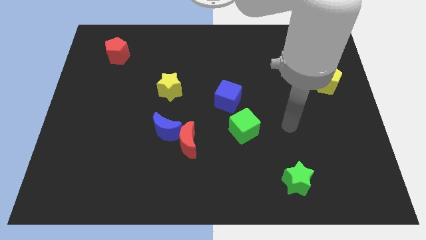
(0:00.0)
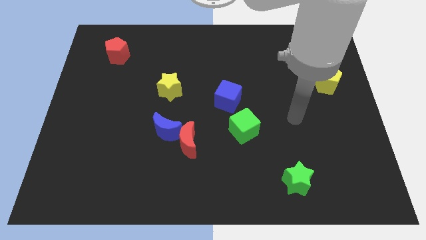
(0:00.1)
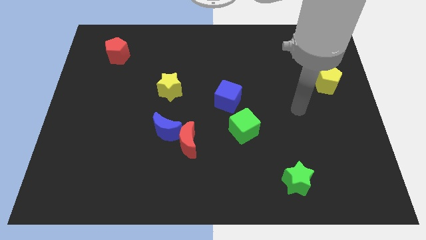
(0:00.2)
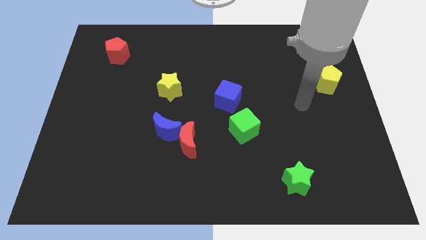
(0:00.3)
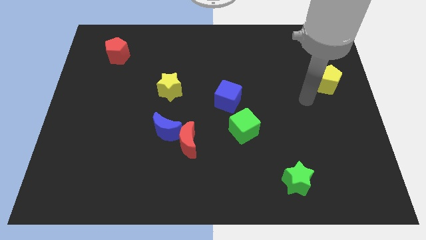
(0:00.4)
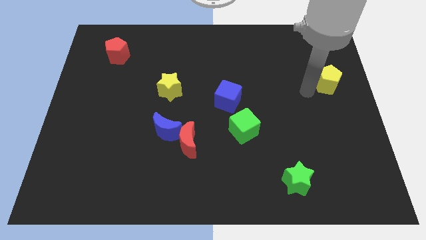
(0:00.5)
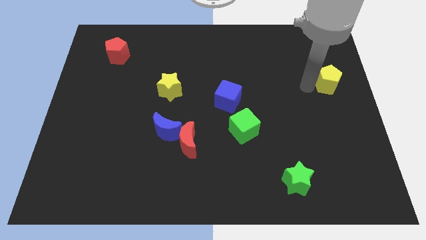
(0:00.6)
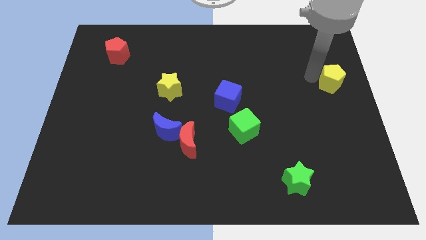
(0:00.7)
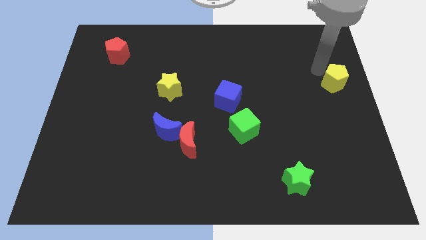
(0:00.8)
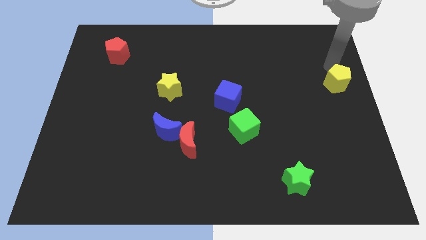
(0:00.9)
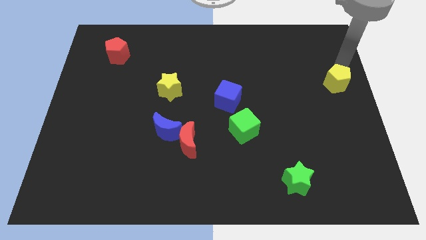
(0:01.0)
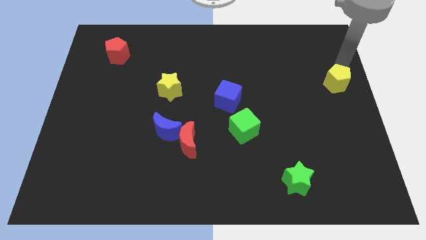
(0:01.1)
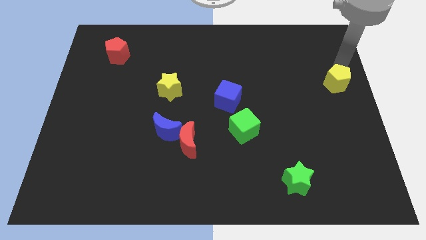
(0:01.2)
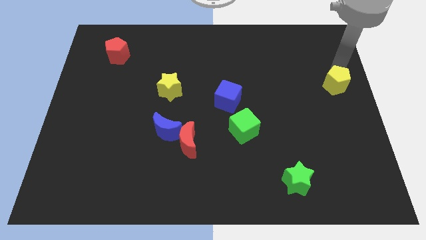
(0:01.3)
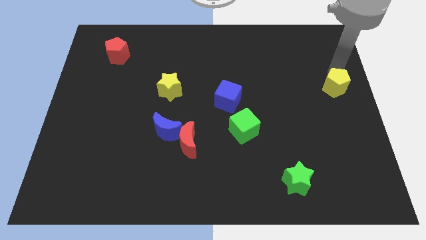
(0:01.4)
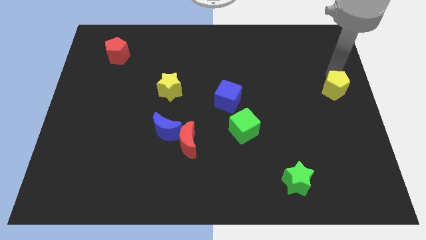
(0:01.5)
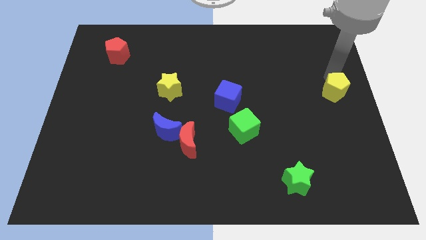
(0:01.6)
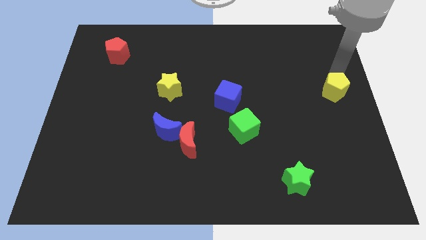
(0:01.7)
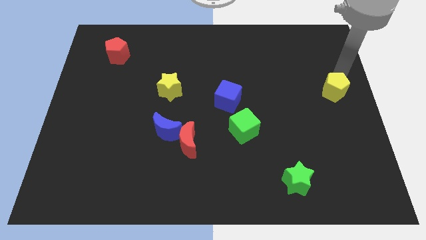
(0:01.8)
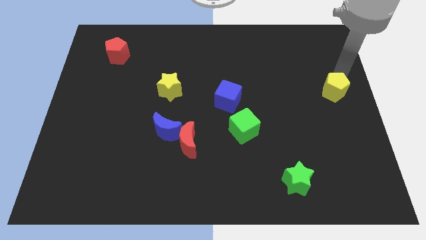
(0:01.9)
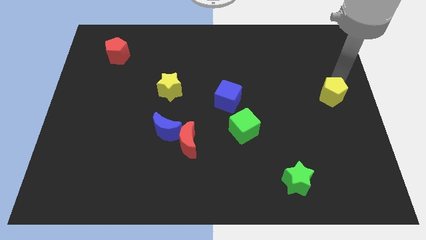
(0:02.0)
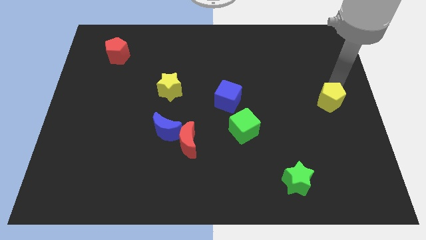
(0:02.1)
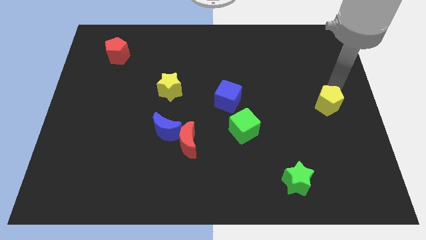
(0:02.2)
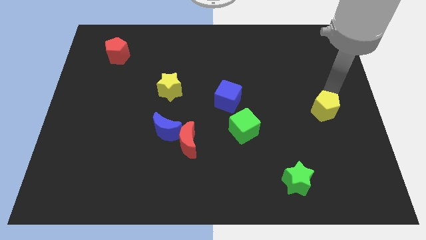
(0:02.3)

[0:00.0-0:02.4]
push the yellow pentagon down a bit

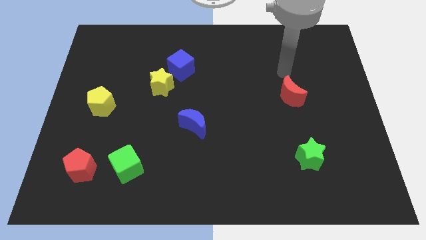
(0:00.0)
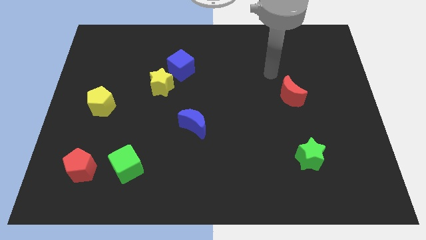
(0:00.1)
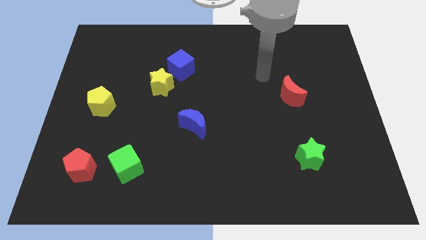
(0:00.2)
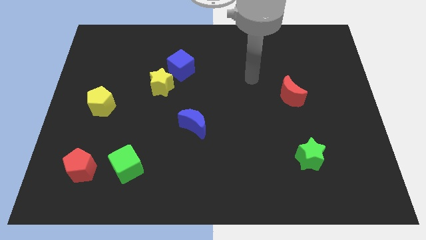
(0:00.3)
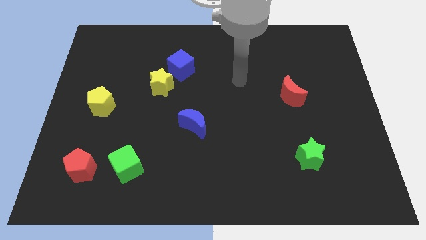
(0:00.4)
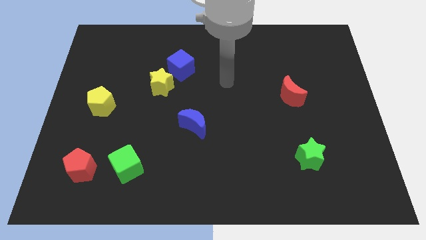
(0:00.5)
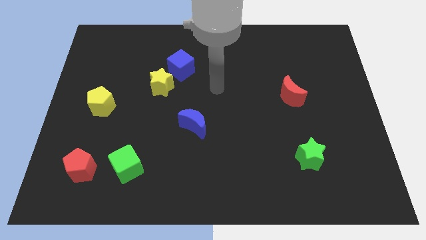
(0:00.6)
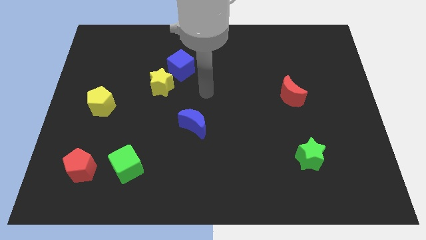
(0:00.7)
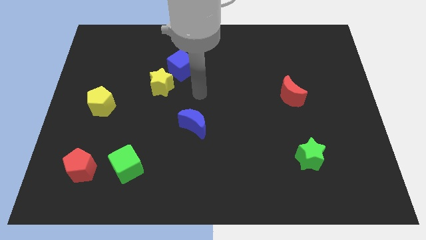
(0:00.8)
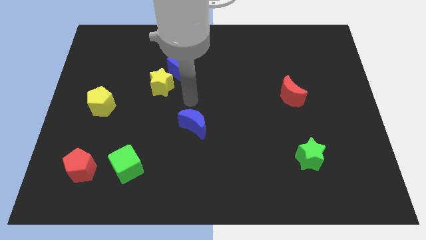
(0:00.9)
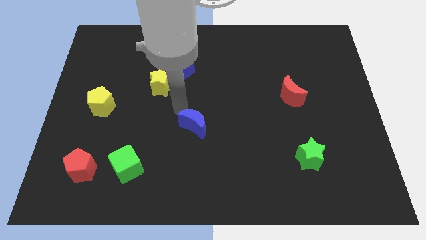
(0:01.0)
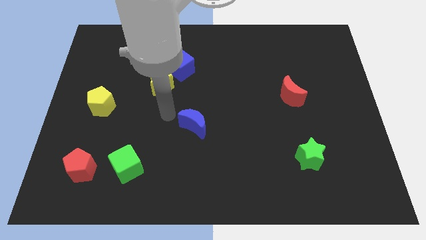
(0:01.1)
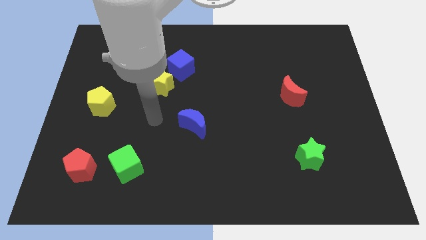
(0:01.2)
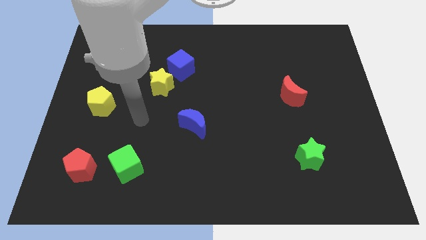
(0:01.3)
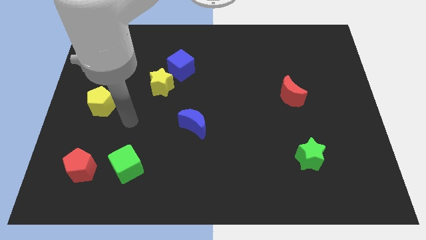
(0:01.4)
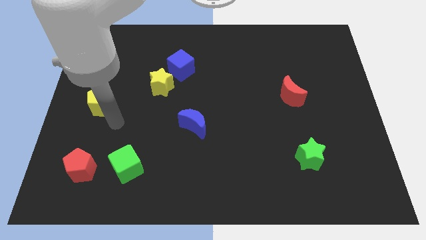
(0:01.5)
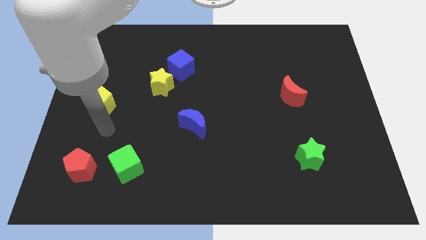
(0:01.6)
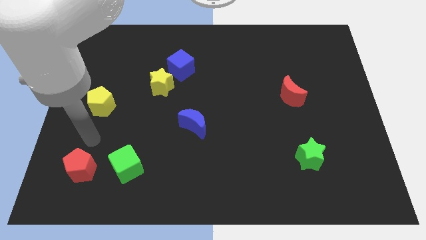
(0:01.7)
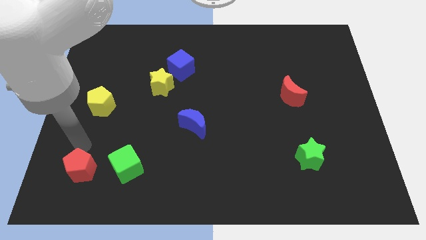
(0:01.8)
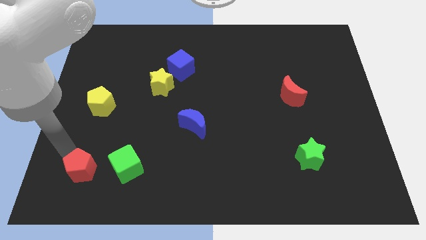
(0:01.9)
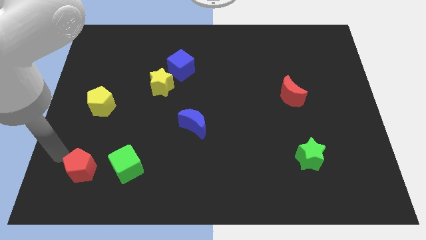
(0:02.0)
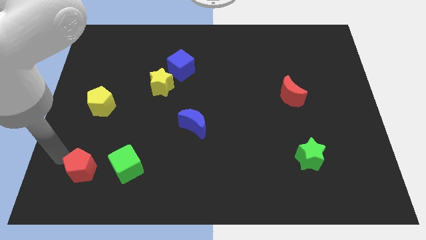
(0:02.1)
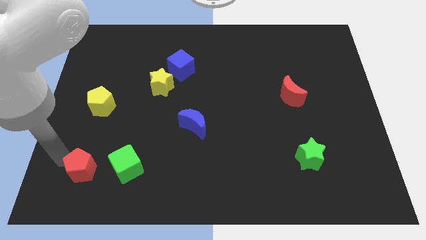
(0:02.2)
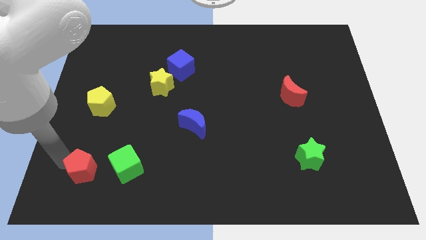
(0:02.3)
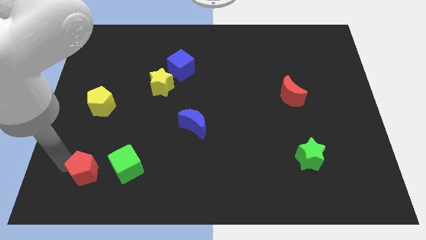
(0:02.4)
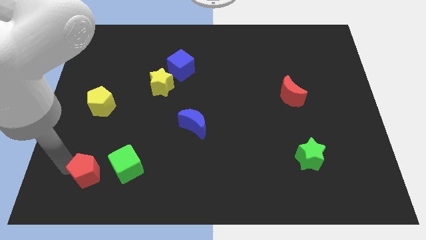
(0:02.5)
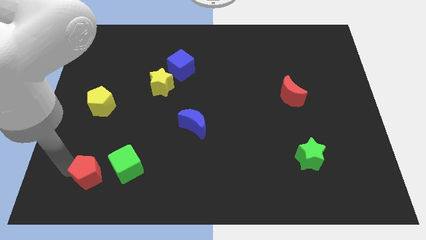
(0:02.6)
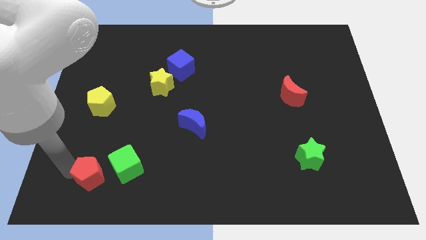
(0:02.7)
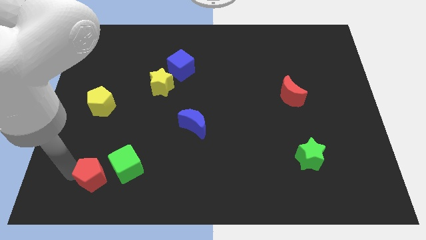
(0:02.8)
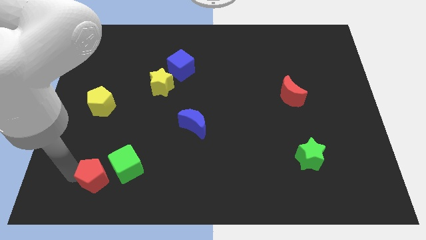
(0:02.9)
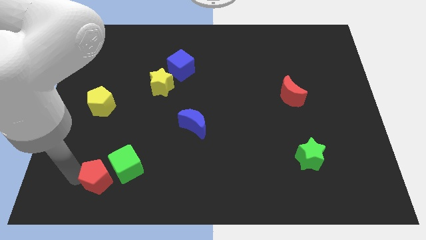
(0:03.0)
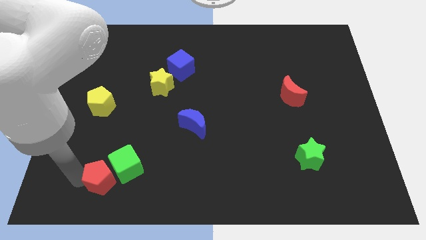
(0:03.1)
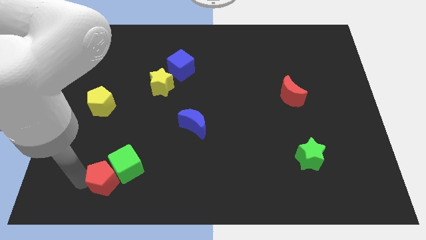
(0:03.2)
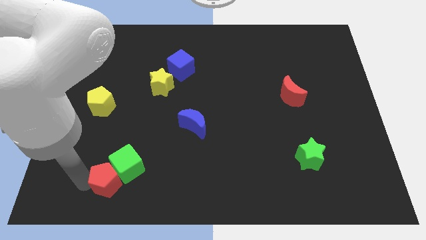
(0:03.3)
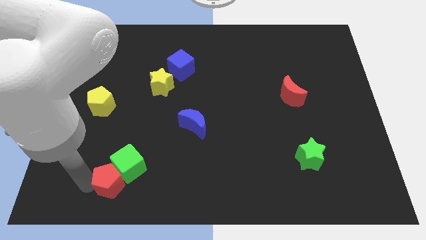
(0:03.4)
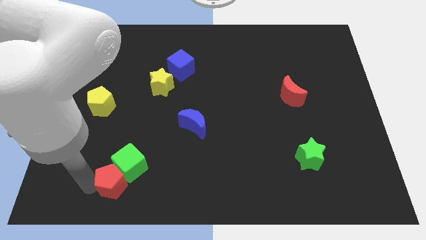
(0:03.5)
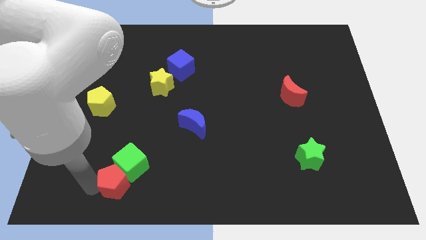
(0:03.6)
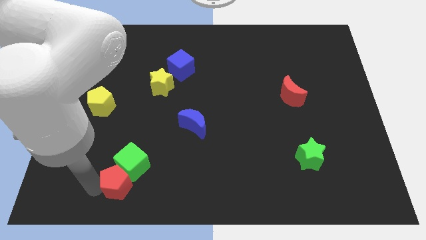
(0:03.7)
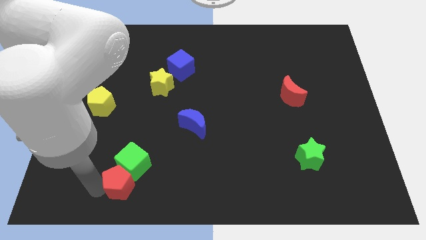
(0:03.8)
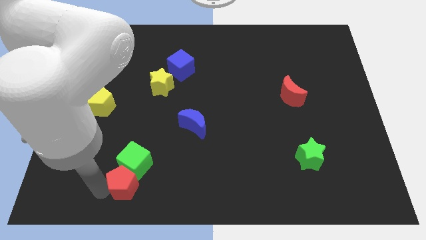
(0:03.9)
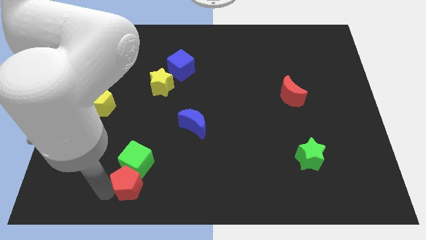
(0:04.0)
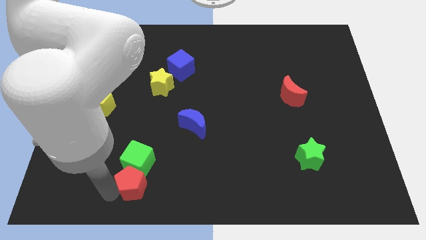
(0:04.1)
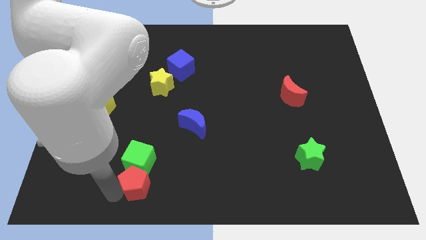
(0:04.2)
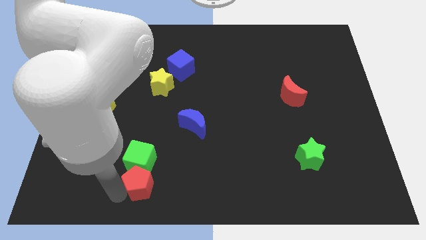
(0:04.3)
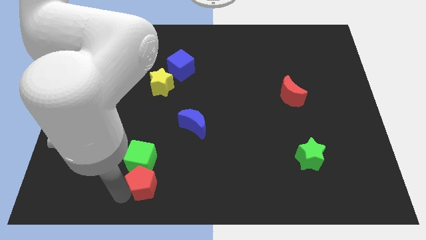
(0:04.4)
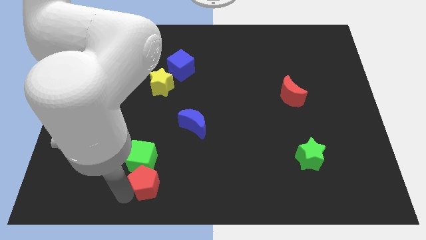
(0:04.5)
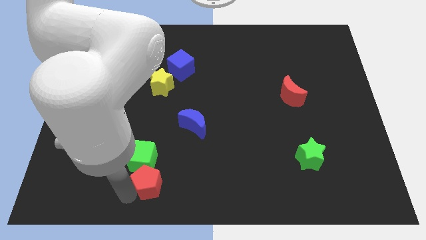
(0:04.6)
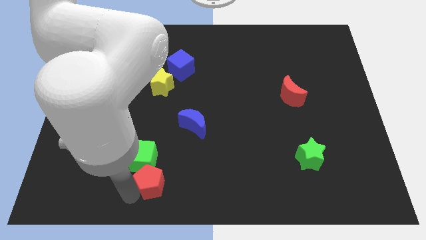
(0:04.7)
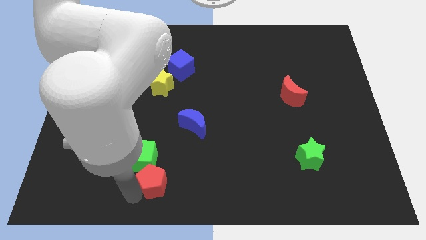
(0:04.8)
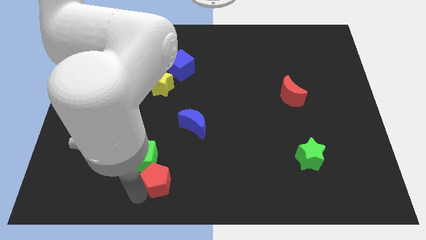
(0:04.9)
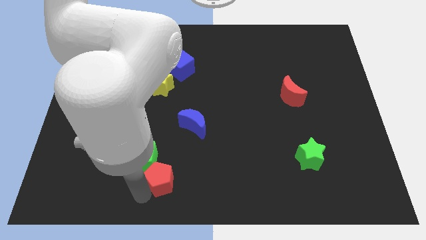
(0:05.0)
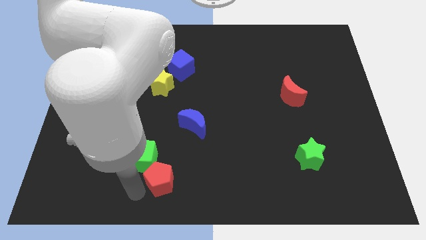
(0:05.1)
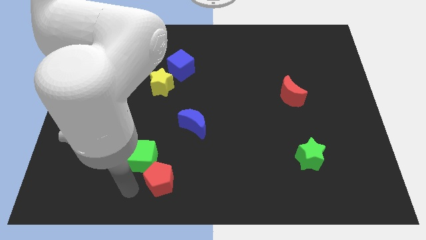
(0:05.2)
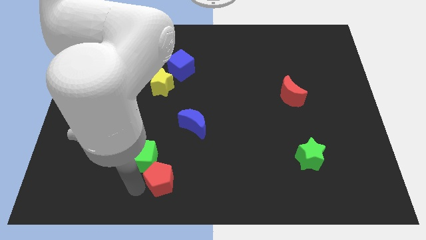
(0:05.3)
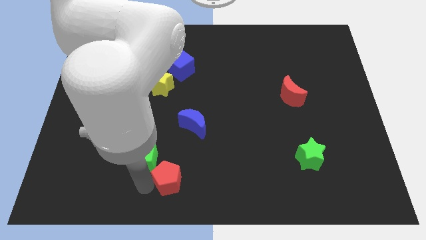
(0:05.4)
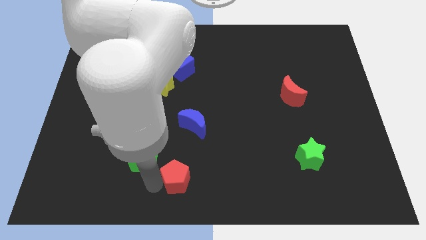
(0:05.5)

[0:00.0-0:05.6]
slide the red pentagon to the right

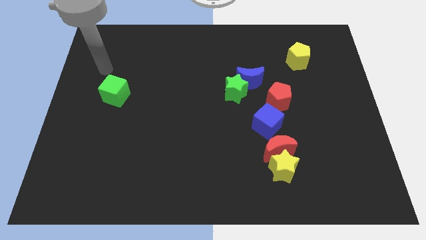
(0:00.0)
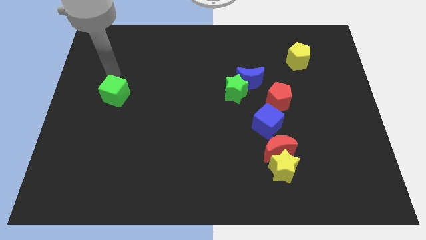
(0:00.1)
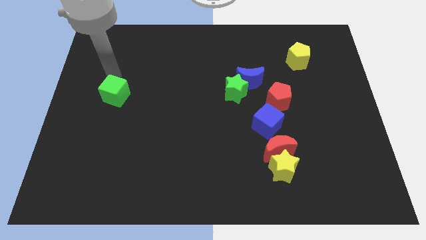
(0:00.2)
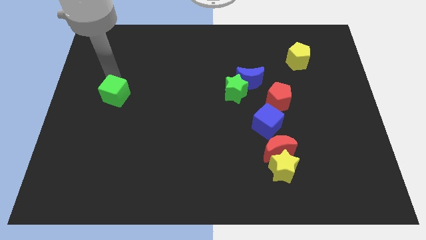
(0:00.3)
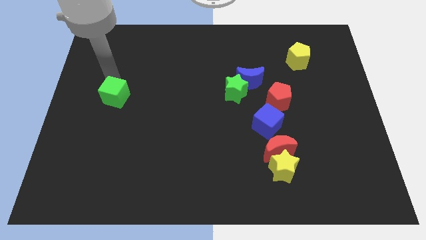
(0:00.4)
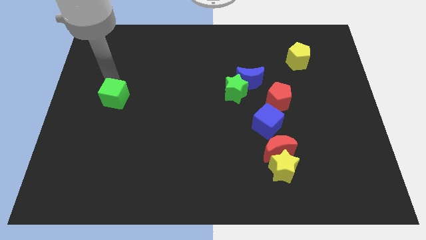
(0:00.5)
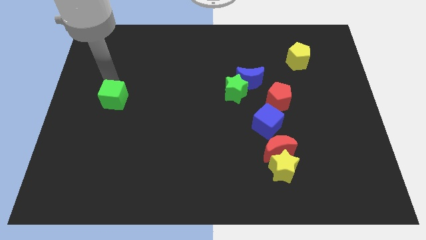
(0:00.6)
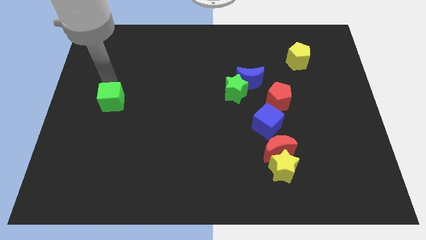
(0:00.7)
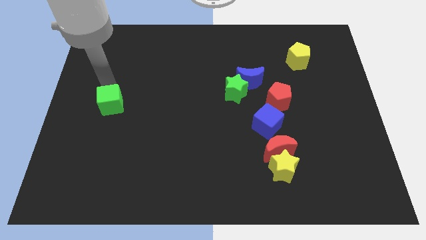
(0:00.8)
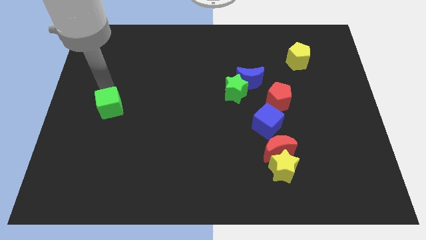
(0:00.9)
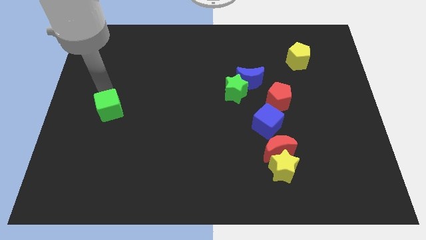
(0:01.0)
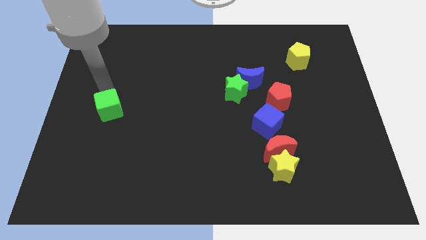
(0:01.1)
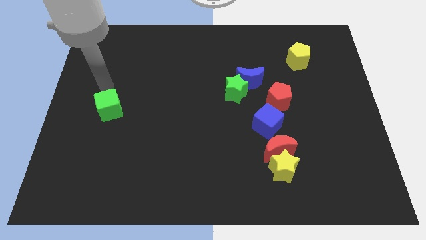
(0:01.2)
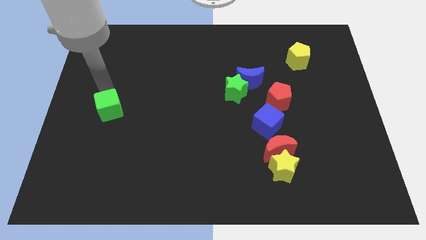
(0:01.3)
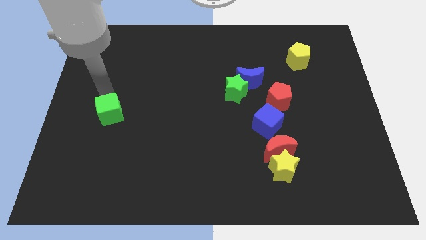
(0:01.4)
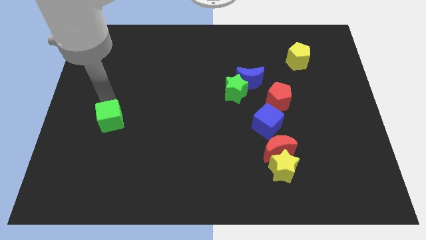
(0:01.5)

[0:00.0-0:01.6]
slightly slide the green cube down
